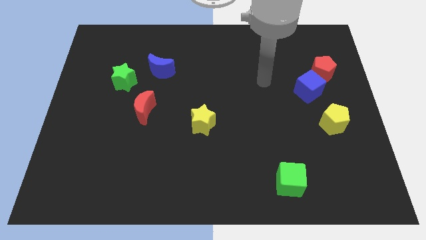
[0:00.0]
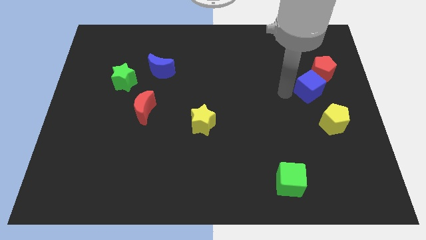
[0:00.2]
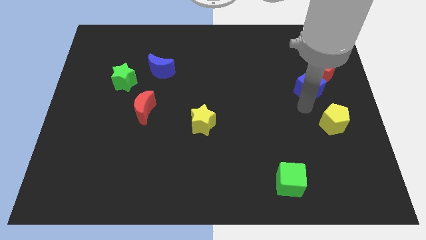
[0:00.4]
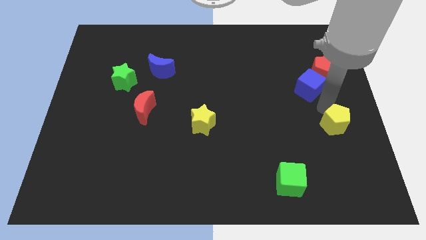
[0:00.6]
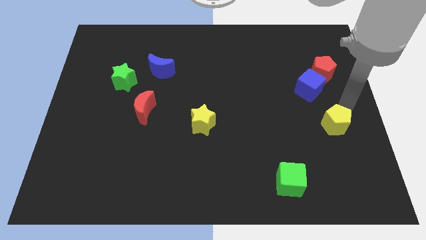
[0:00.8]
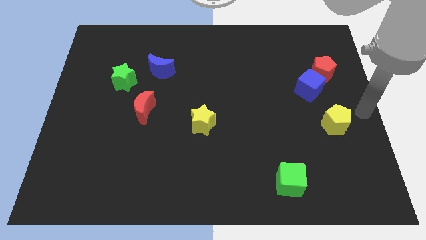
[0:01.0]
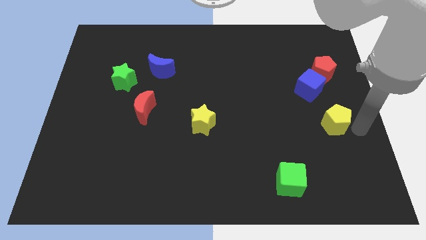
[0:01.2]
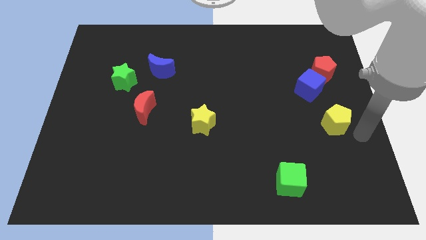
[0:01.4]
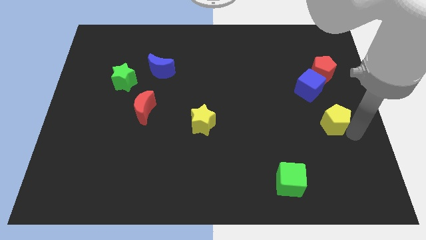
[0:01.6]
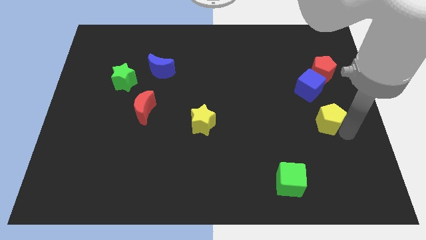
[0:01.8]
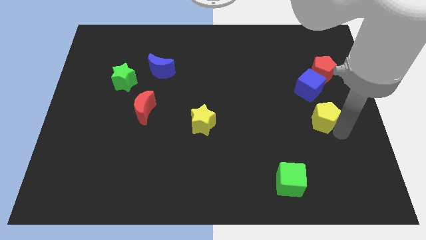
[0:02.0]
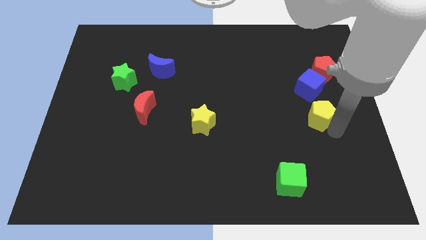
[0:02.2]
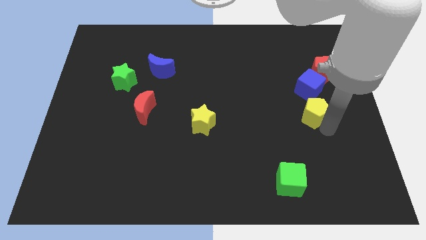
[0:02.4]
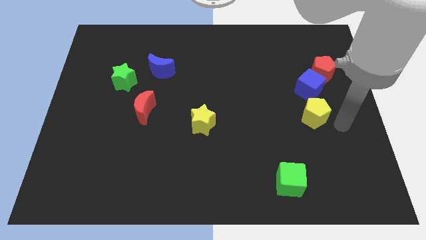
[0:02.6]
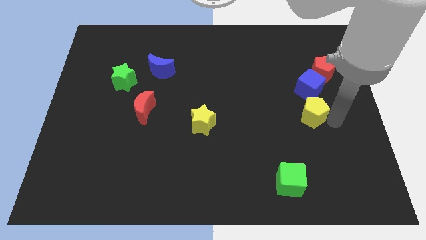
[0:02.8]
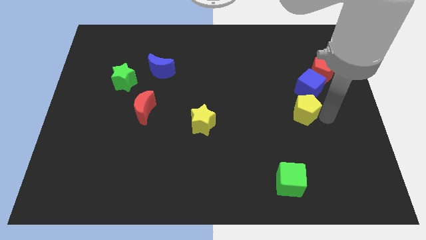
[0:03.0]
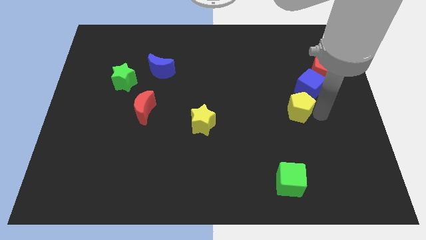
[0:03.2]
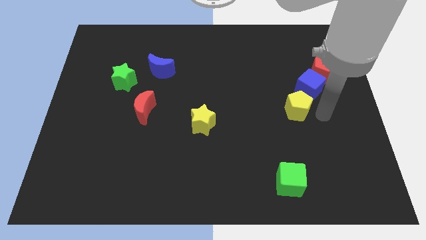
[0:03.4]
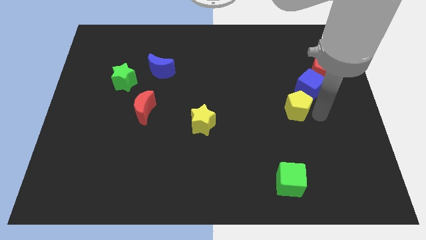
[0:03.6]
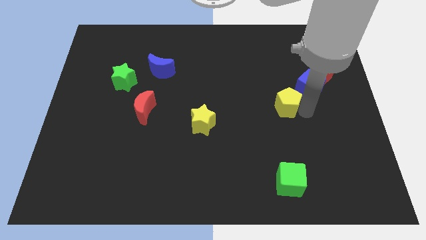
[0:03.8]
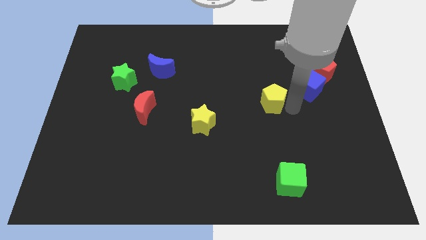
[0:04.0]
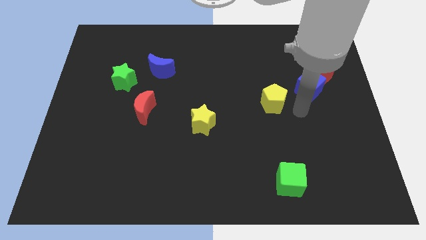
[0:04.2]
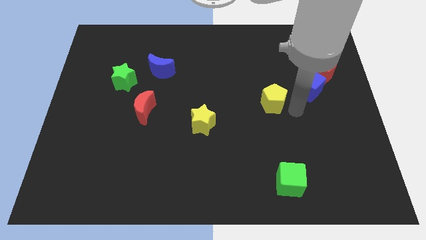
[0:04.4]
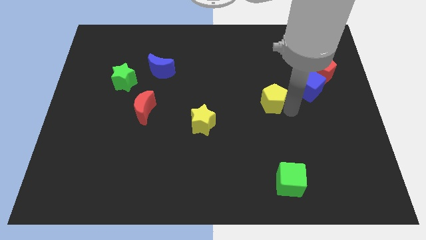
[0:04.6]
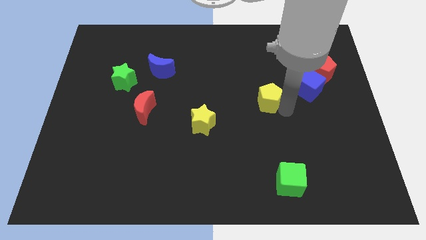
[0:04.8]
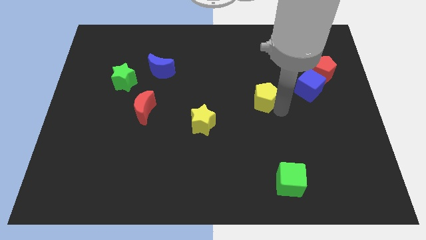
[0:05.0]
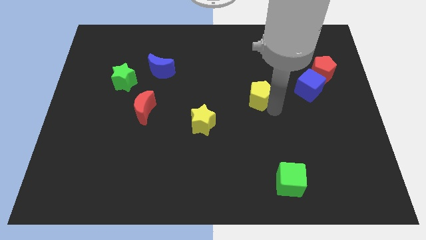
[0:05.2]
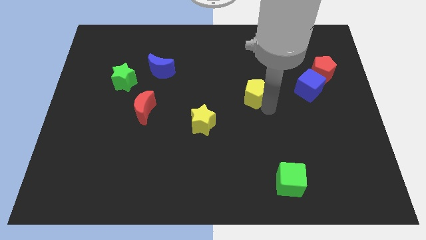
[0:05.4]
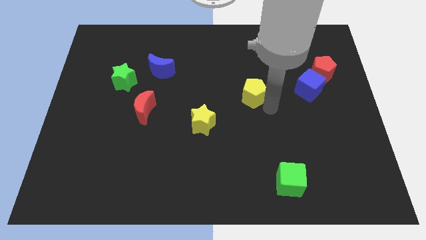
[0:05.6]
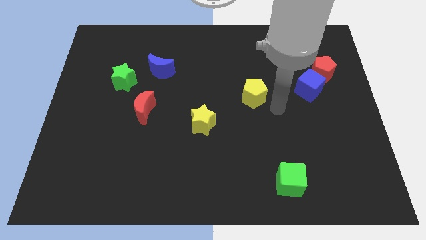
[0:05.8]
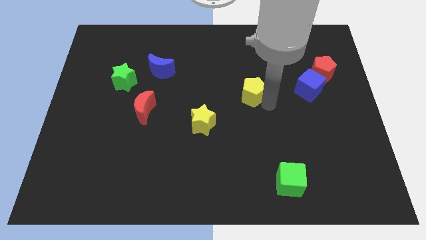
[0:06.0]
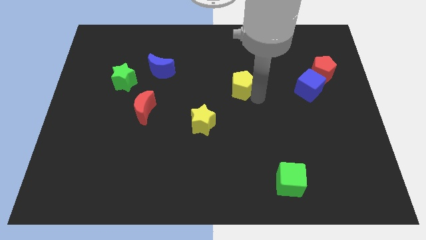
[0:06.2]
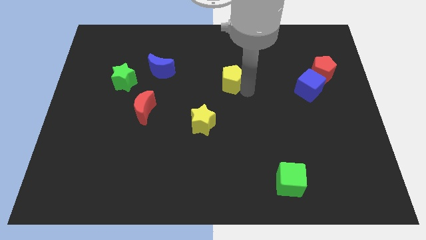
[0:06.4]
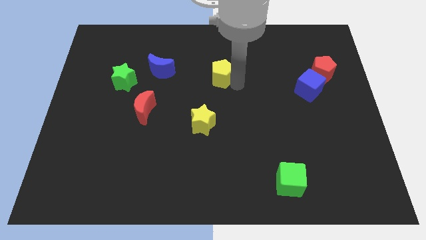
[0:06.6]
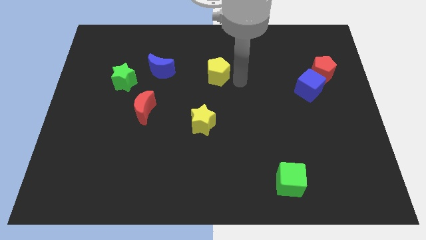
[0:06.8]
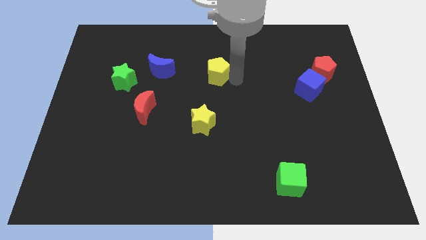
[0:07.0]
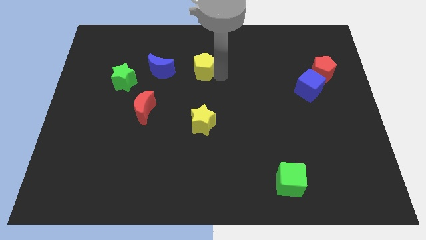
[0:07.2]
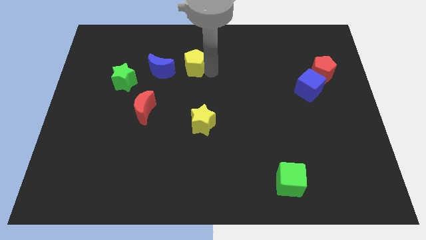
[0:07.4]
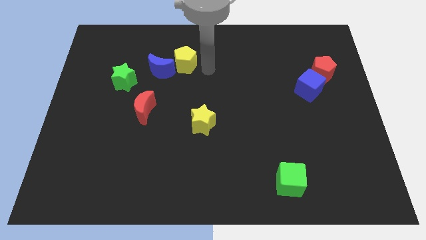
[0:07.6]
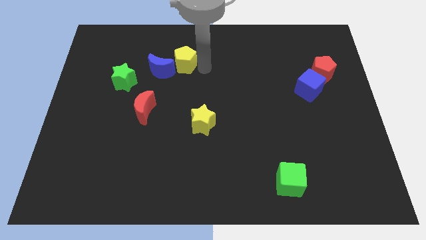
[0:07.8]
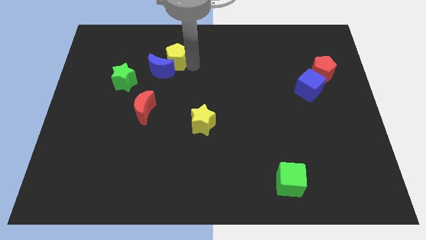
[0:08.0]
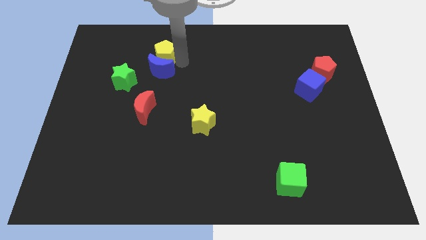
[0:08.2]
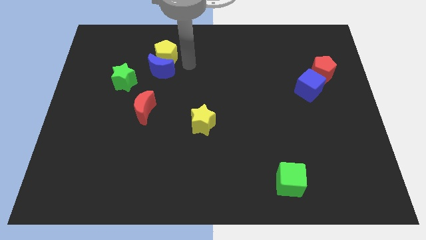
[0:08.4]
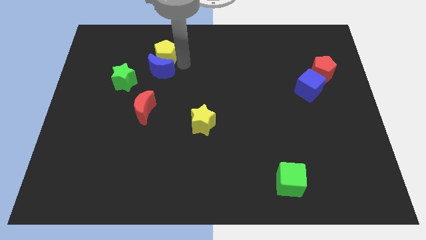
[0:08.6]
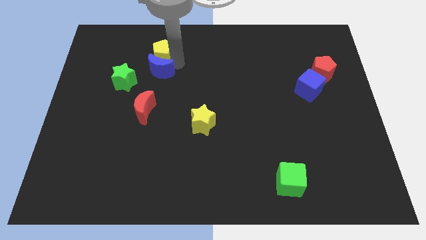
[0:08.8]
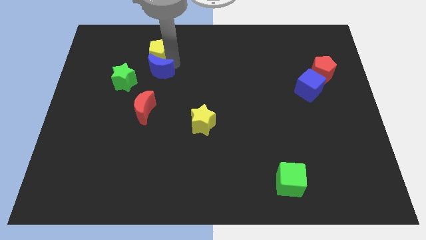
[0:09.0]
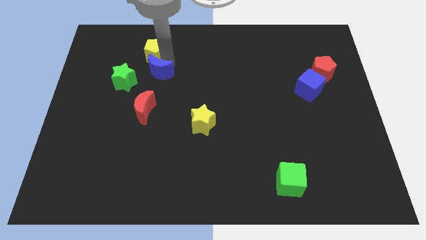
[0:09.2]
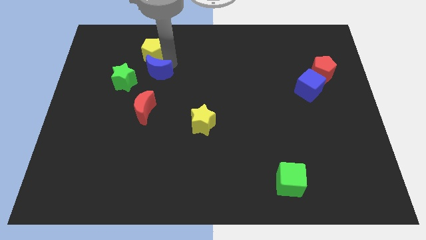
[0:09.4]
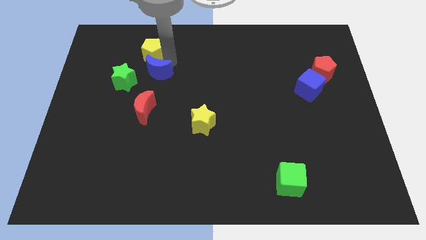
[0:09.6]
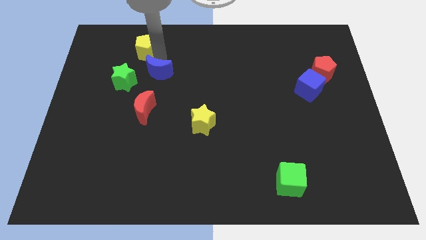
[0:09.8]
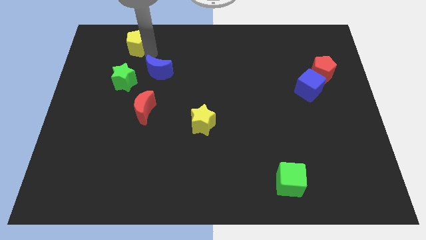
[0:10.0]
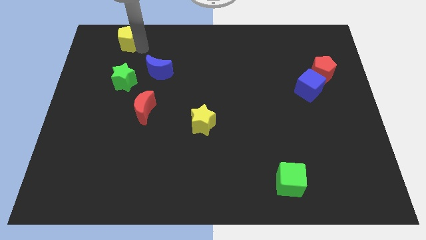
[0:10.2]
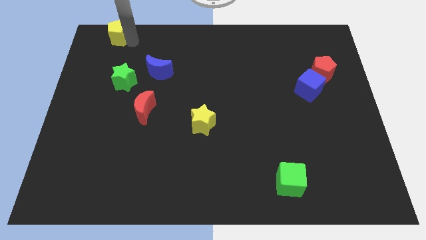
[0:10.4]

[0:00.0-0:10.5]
slide the yellow pentagon to the top left of the board

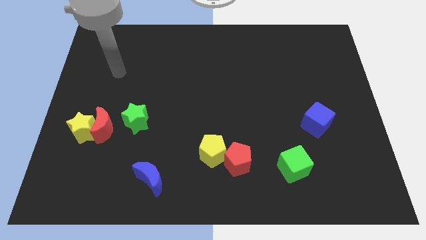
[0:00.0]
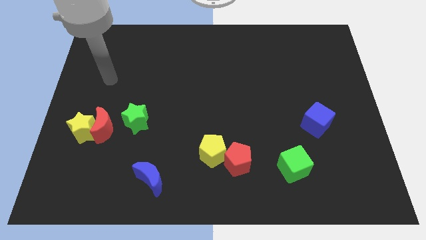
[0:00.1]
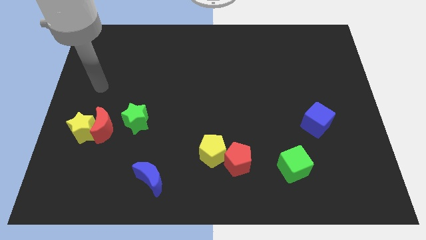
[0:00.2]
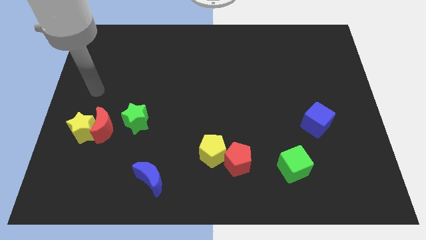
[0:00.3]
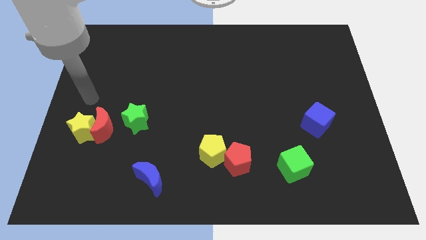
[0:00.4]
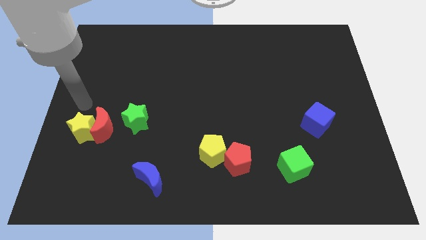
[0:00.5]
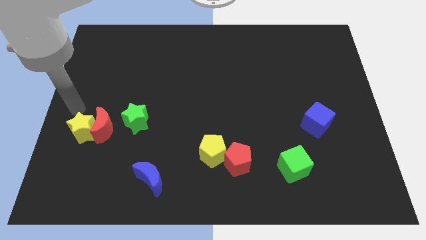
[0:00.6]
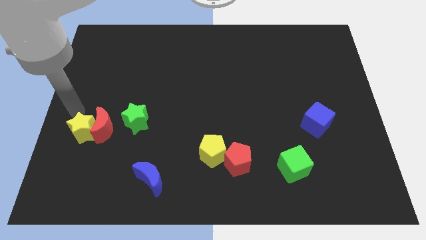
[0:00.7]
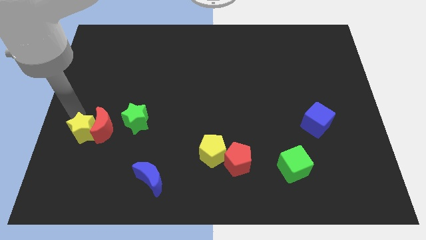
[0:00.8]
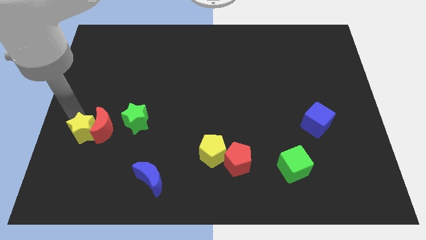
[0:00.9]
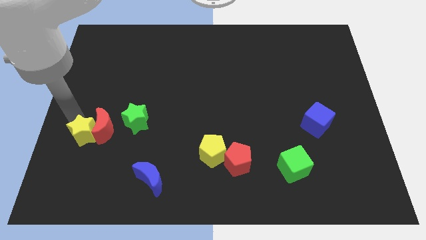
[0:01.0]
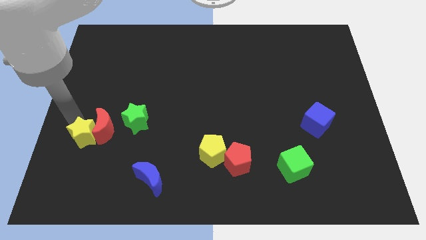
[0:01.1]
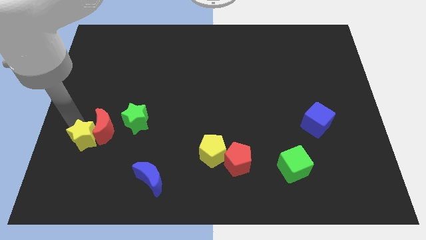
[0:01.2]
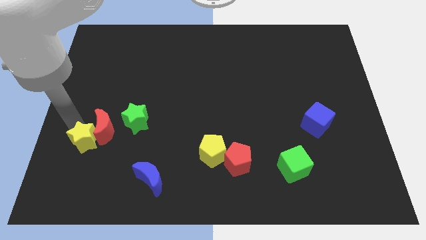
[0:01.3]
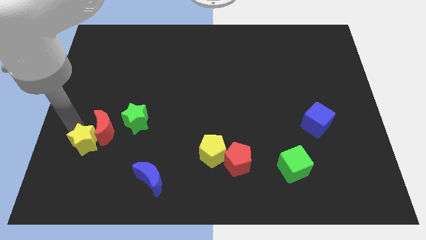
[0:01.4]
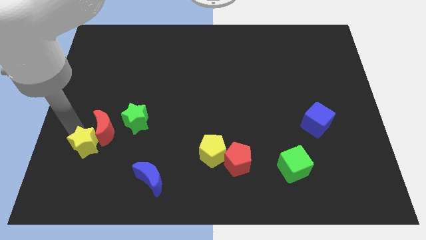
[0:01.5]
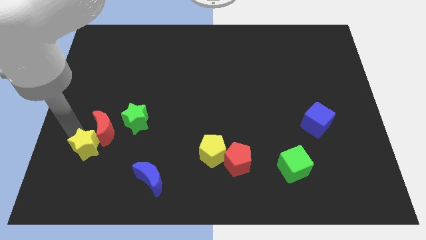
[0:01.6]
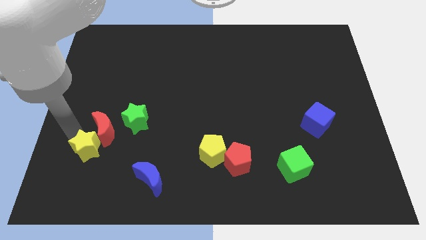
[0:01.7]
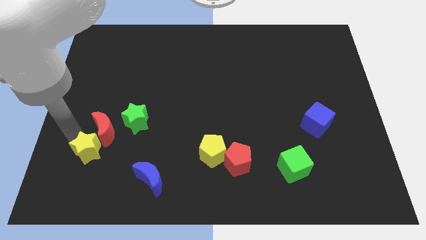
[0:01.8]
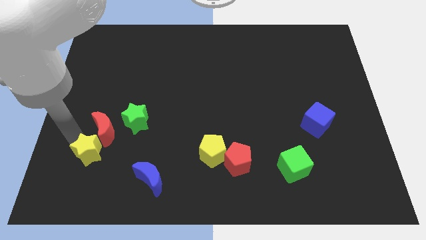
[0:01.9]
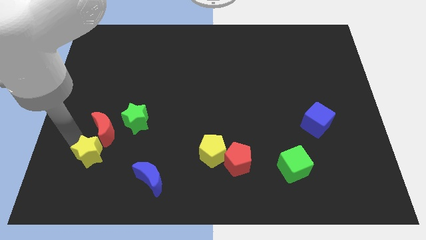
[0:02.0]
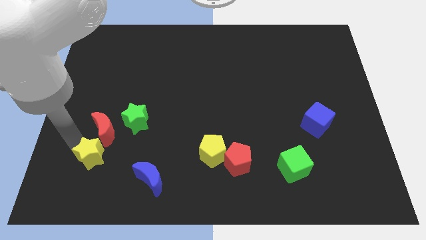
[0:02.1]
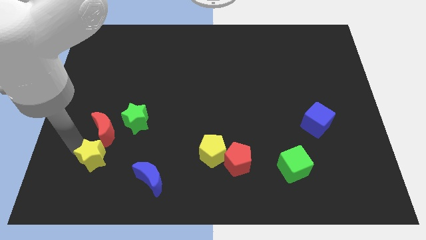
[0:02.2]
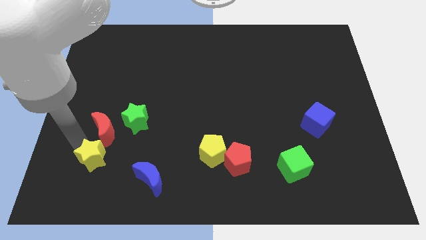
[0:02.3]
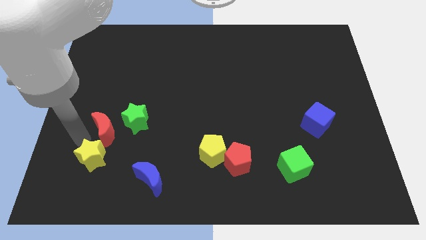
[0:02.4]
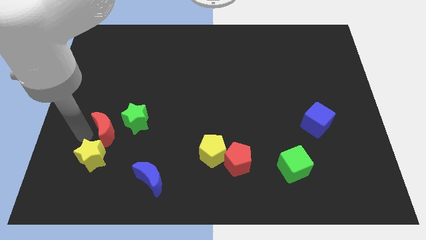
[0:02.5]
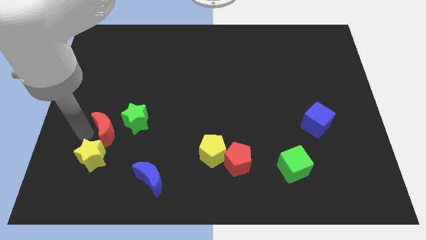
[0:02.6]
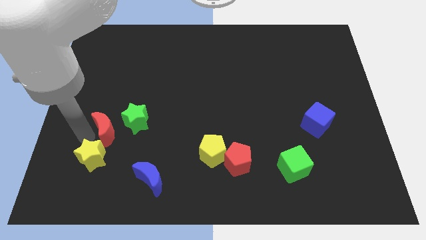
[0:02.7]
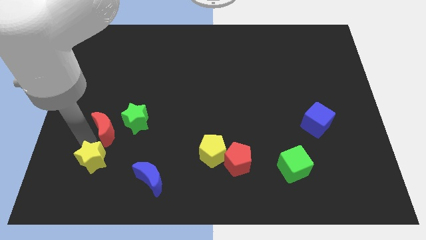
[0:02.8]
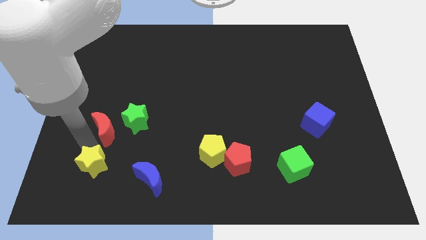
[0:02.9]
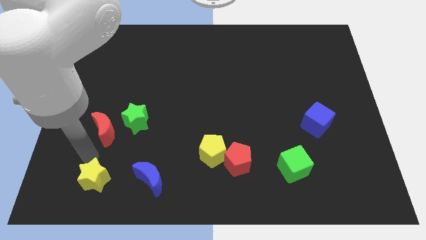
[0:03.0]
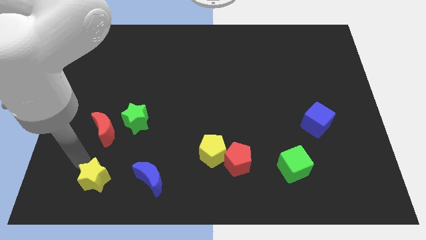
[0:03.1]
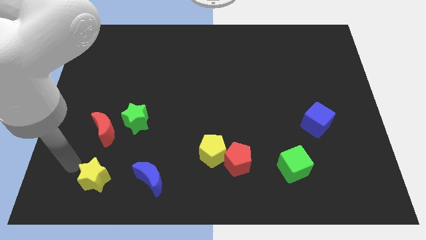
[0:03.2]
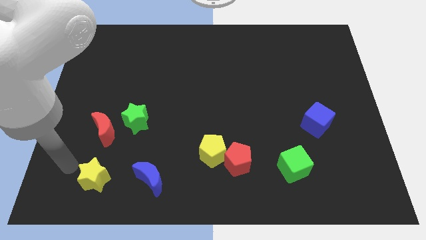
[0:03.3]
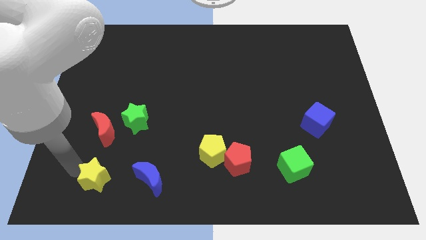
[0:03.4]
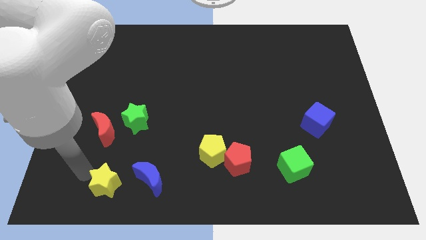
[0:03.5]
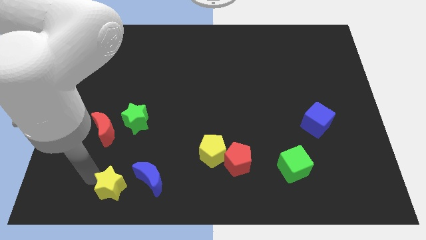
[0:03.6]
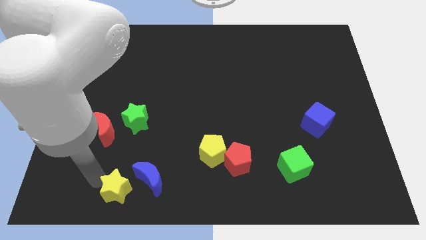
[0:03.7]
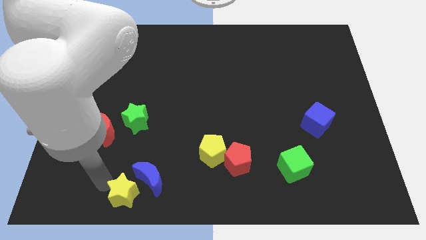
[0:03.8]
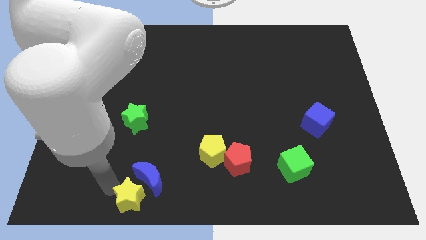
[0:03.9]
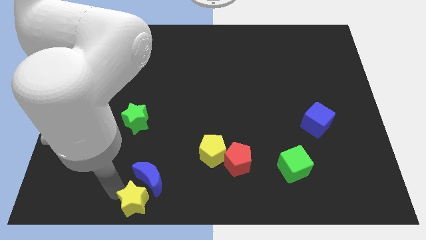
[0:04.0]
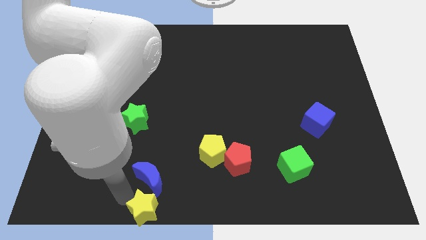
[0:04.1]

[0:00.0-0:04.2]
push the yellow star to the bottom side
